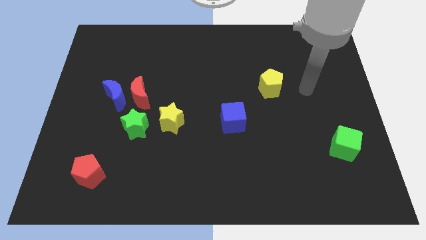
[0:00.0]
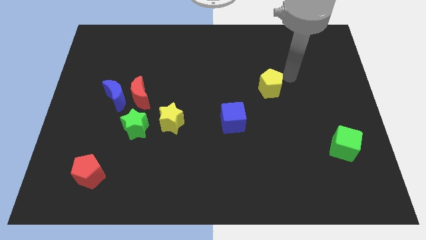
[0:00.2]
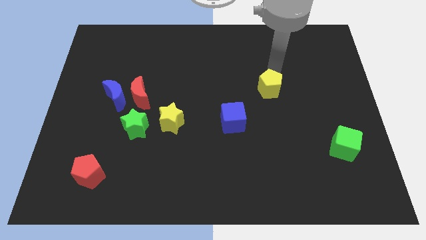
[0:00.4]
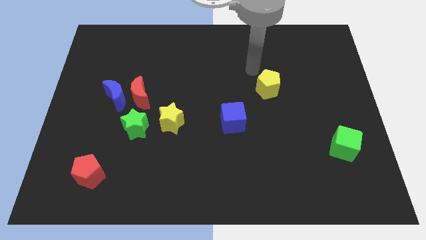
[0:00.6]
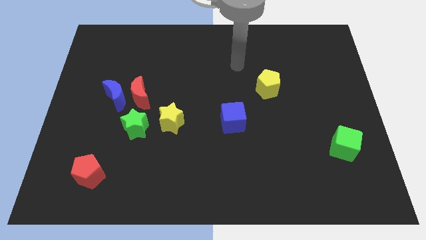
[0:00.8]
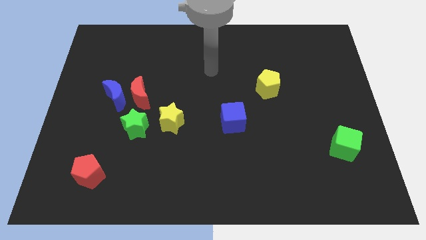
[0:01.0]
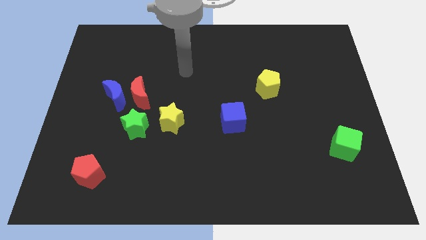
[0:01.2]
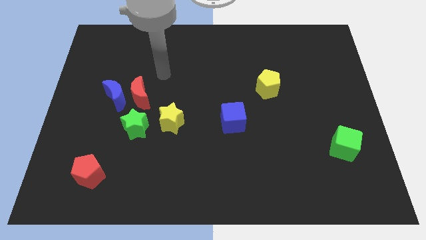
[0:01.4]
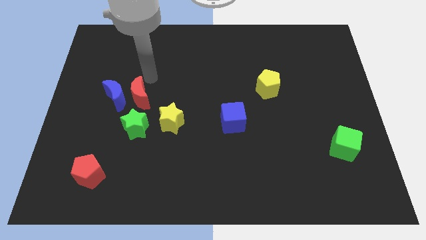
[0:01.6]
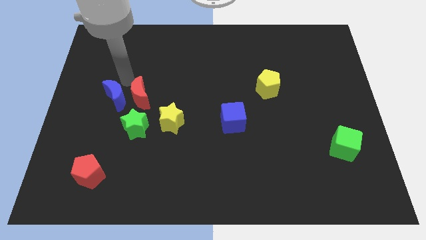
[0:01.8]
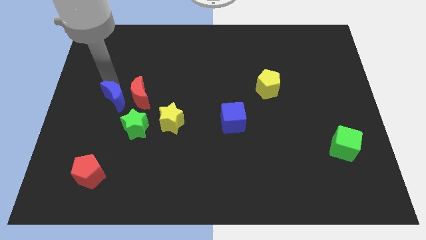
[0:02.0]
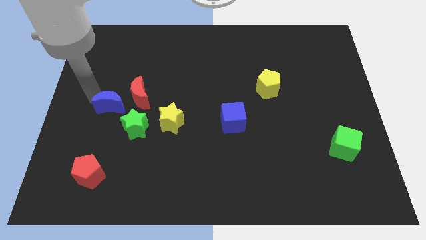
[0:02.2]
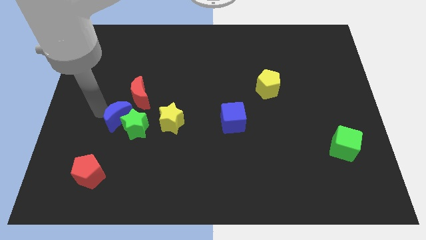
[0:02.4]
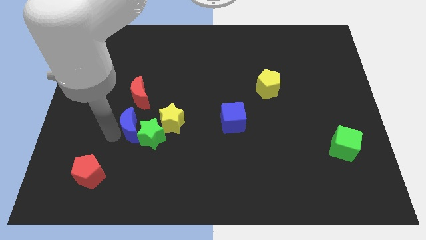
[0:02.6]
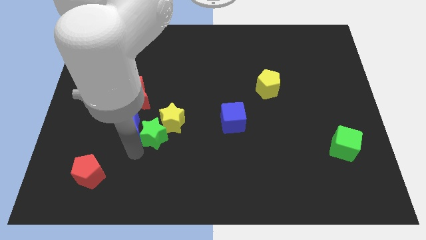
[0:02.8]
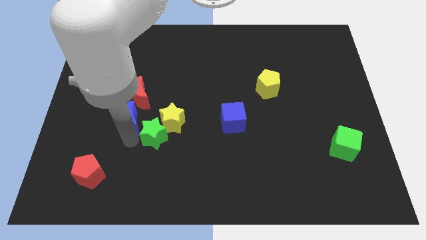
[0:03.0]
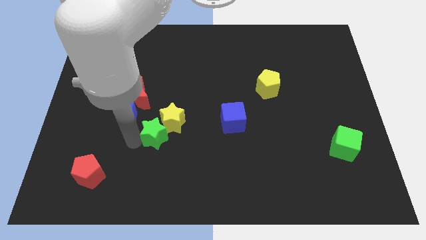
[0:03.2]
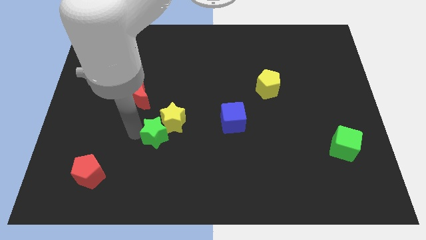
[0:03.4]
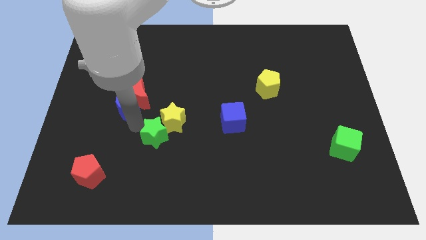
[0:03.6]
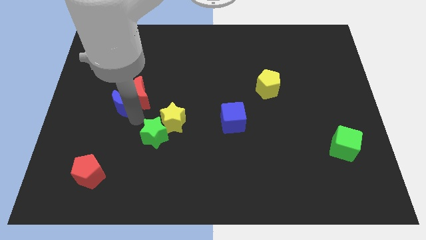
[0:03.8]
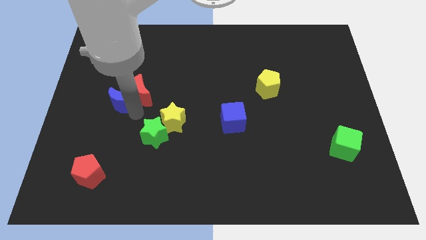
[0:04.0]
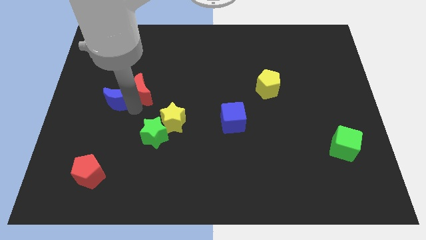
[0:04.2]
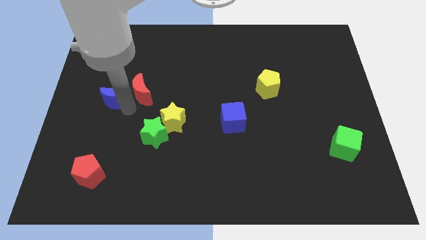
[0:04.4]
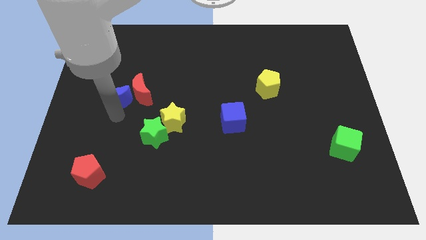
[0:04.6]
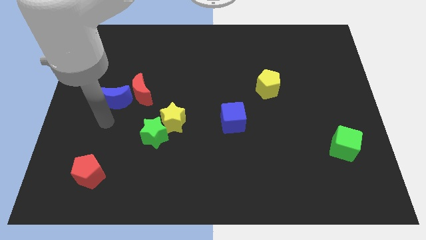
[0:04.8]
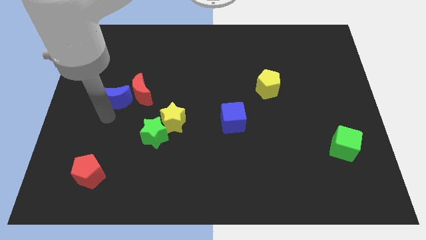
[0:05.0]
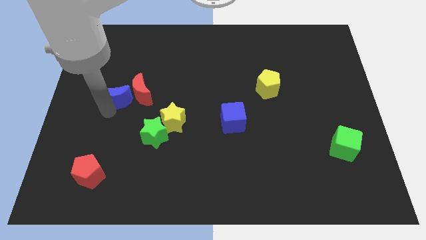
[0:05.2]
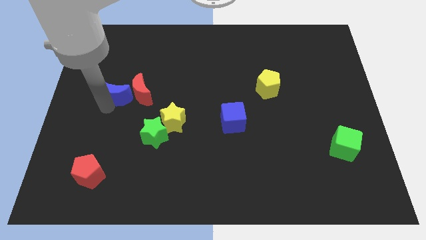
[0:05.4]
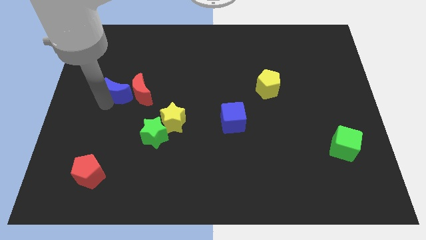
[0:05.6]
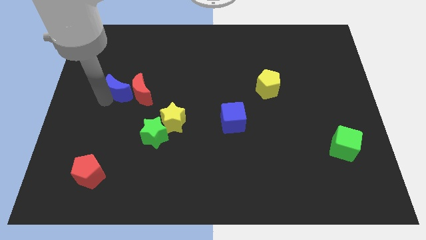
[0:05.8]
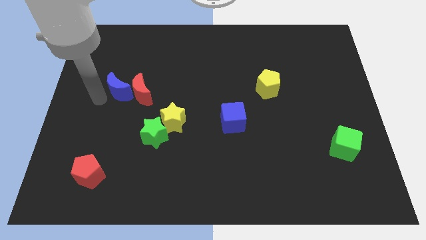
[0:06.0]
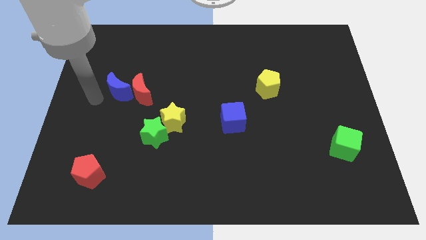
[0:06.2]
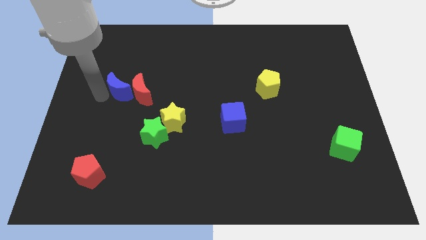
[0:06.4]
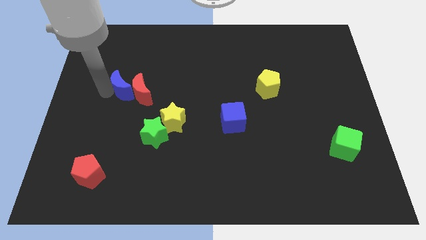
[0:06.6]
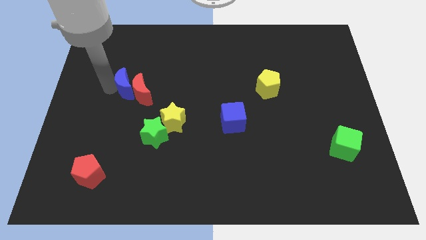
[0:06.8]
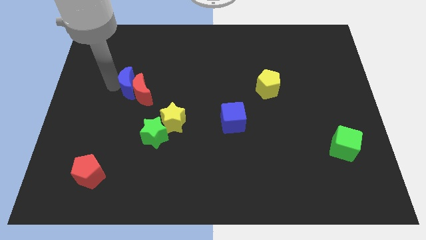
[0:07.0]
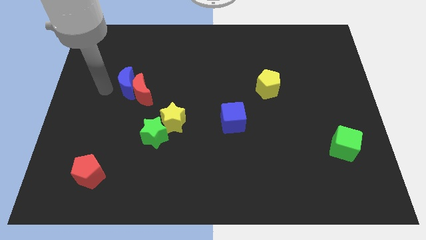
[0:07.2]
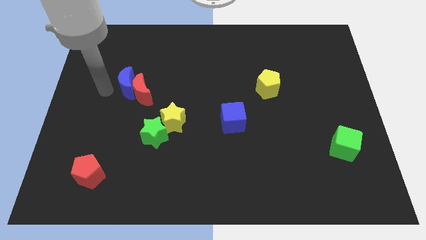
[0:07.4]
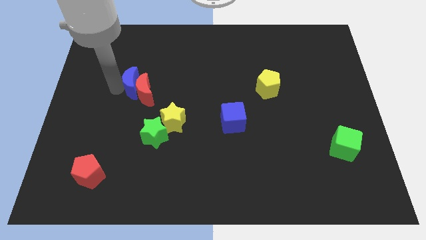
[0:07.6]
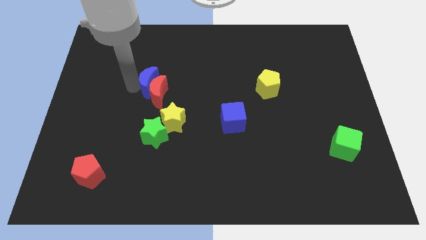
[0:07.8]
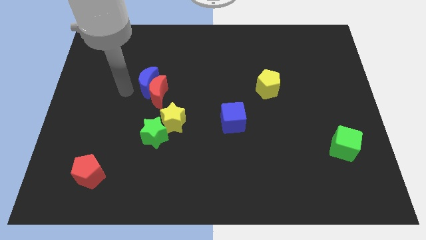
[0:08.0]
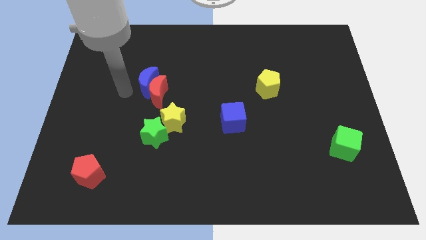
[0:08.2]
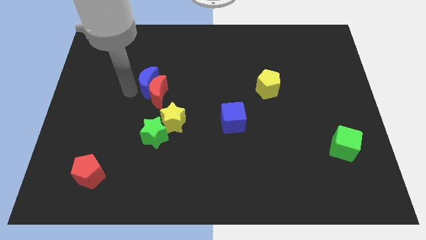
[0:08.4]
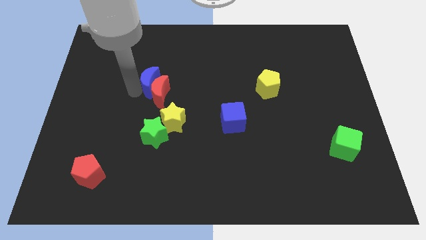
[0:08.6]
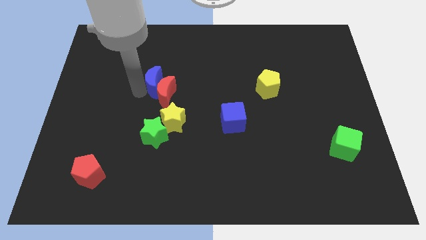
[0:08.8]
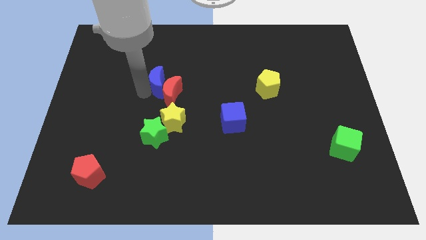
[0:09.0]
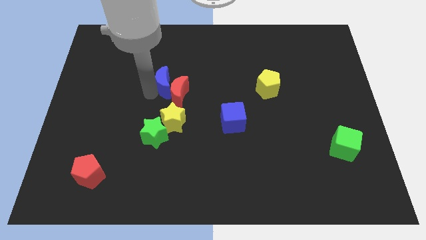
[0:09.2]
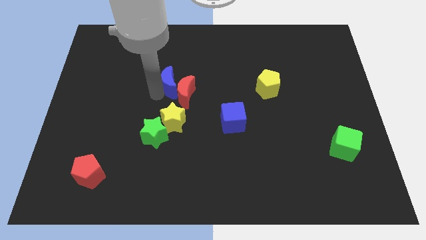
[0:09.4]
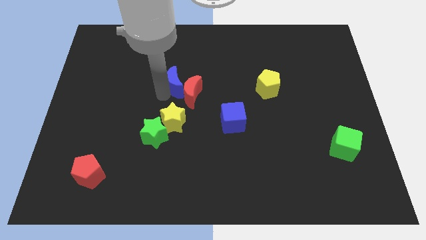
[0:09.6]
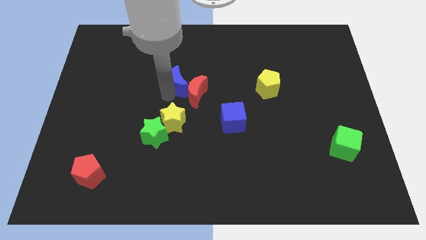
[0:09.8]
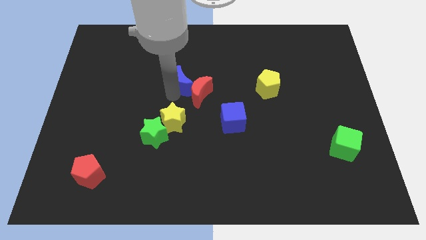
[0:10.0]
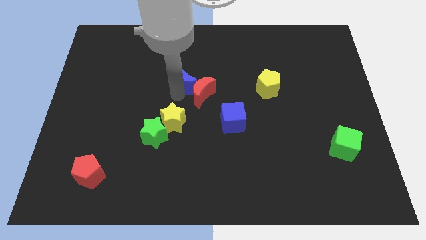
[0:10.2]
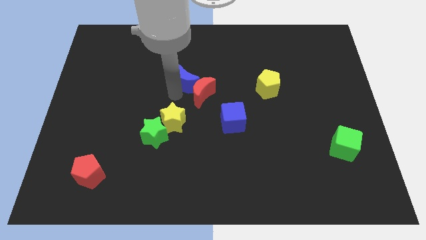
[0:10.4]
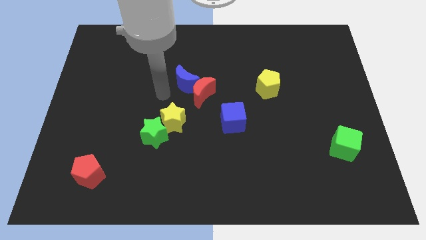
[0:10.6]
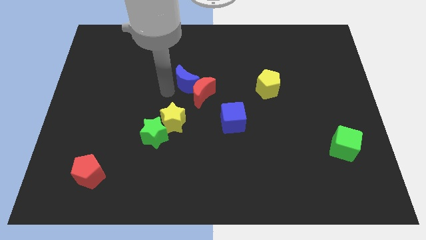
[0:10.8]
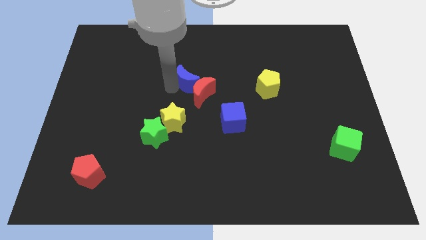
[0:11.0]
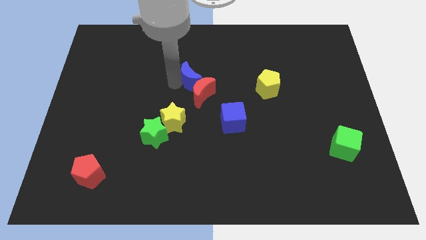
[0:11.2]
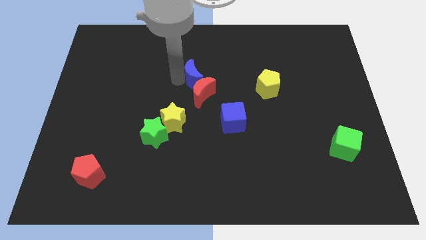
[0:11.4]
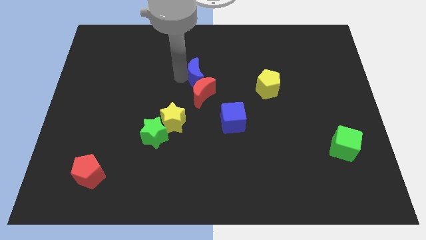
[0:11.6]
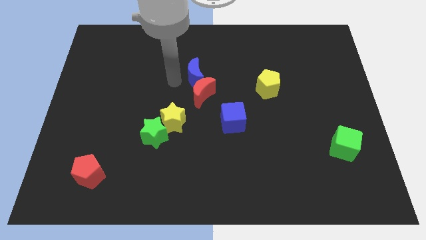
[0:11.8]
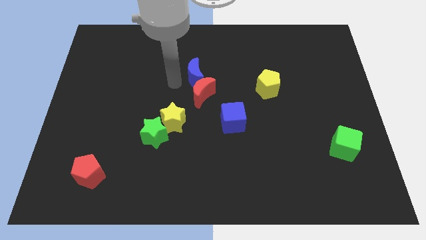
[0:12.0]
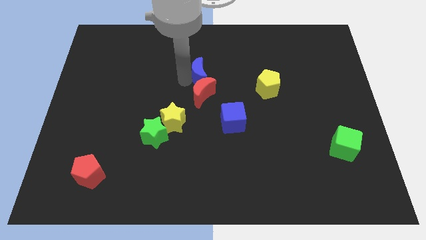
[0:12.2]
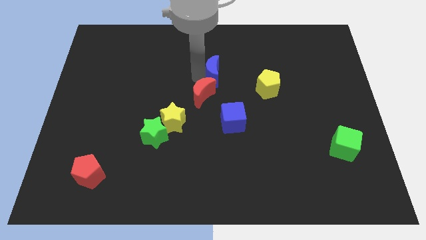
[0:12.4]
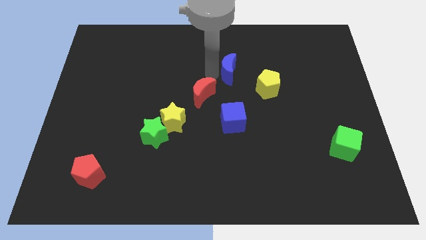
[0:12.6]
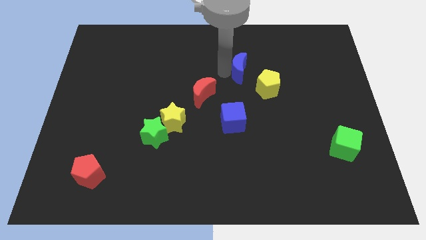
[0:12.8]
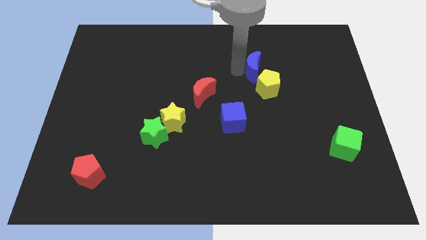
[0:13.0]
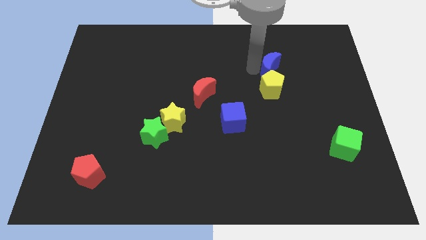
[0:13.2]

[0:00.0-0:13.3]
push the blue moon to the top right side of the yellow pentagon
